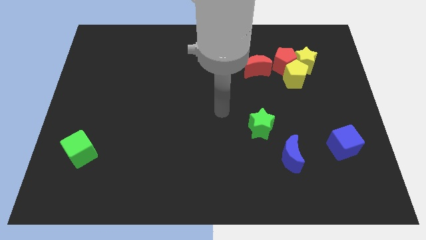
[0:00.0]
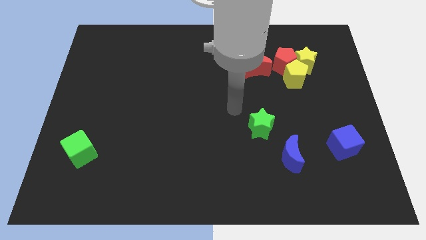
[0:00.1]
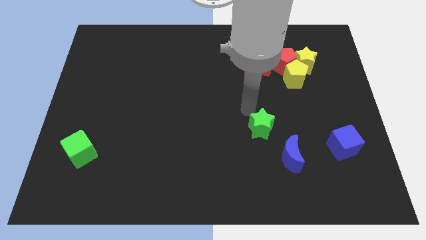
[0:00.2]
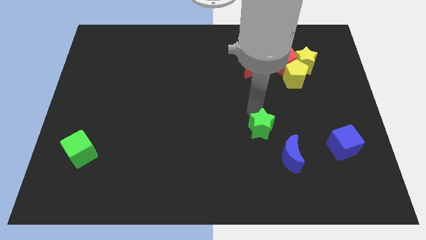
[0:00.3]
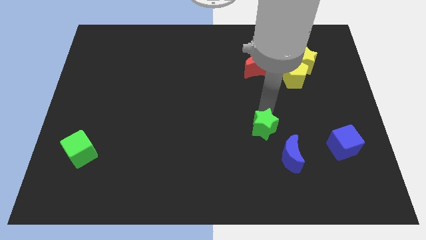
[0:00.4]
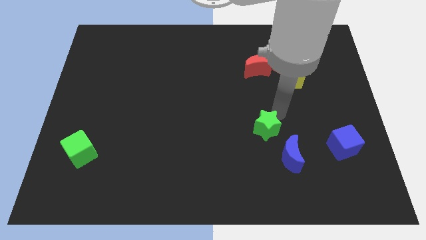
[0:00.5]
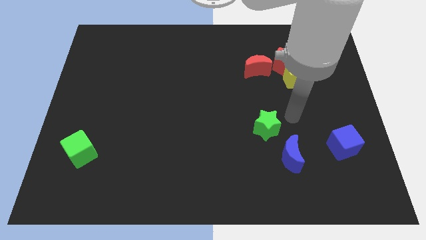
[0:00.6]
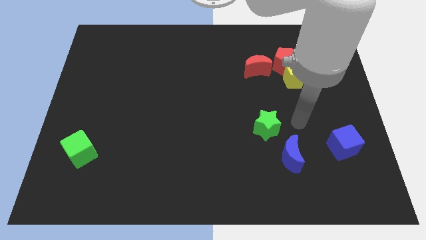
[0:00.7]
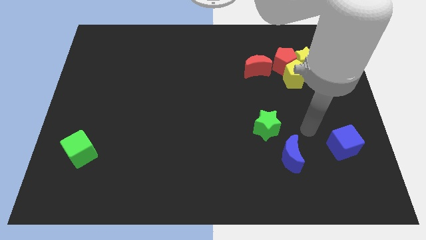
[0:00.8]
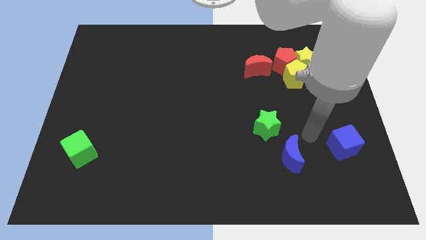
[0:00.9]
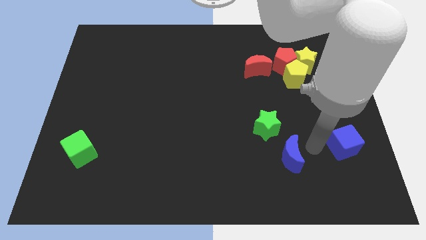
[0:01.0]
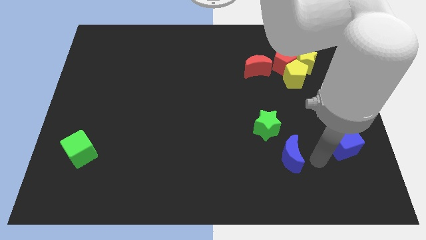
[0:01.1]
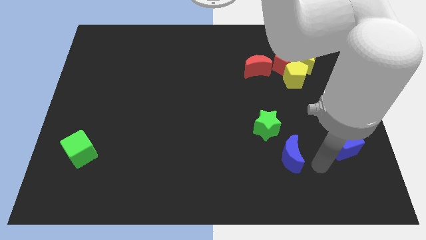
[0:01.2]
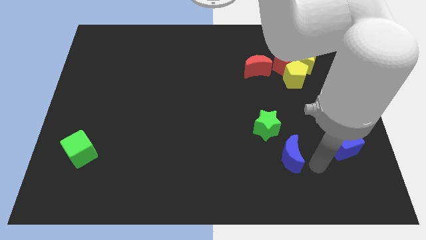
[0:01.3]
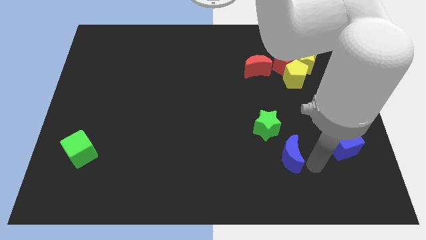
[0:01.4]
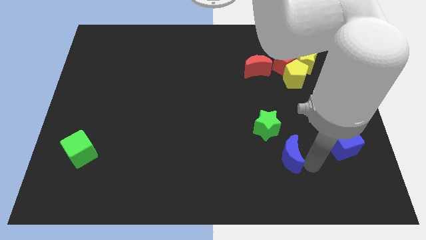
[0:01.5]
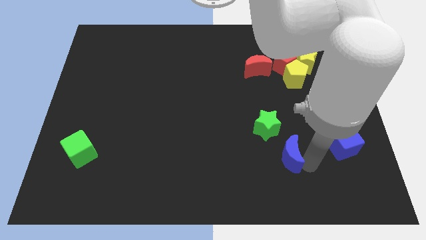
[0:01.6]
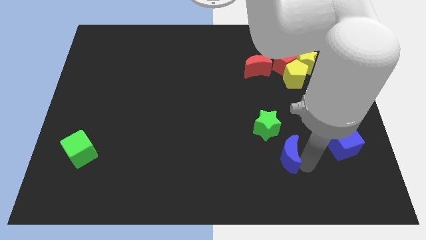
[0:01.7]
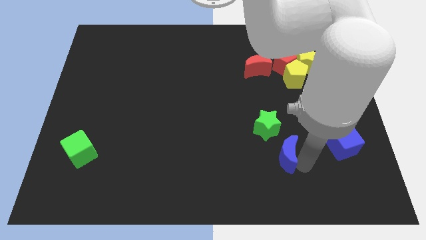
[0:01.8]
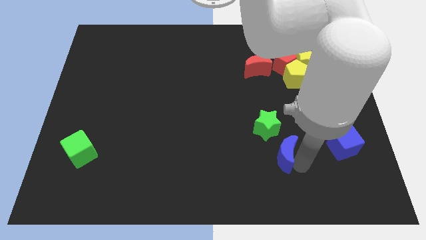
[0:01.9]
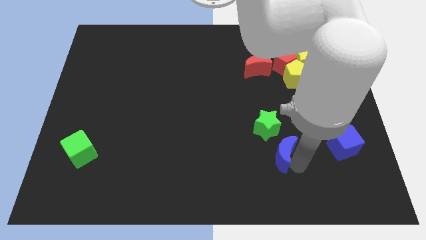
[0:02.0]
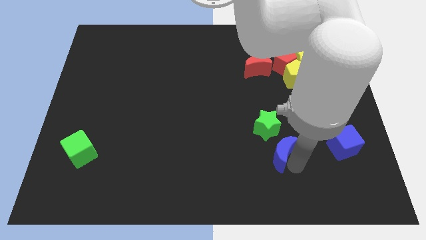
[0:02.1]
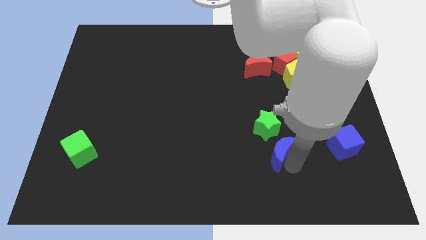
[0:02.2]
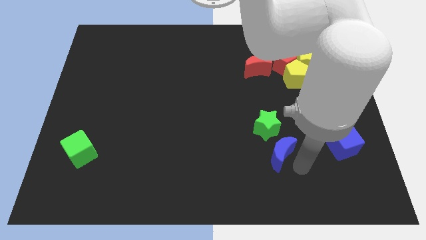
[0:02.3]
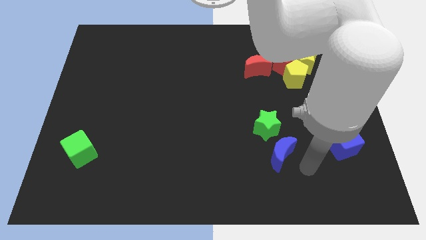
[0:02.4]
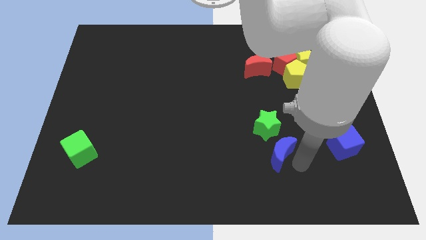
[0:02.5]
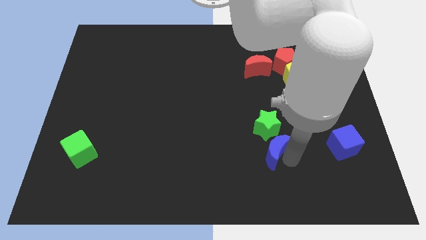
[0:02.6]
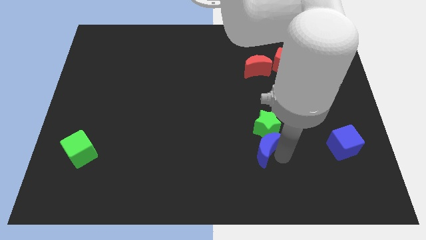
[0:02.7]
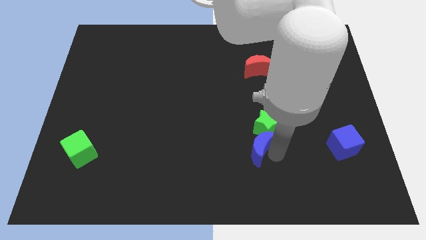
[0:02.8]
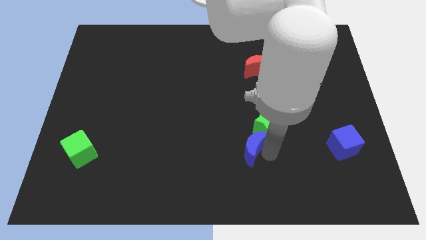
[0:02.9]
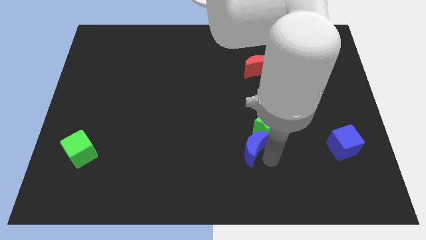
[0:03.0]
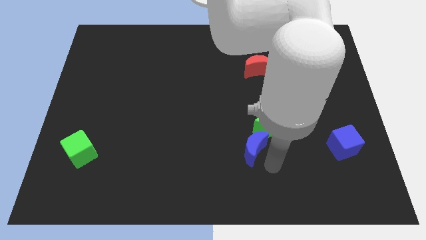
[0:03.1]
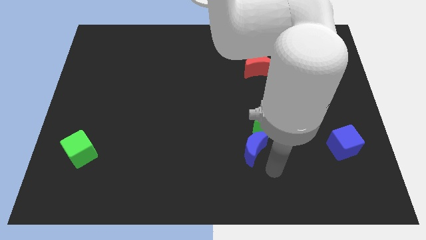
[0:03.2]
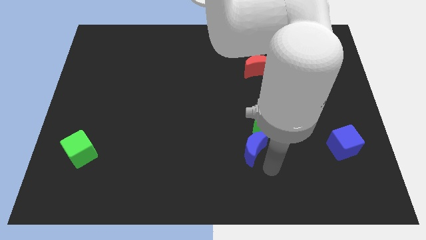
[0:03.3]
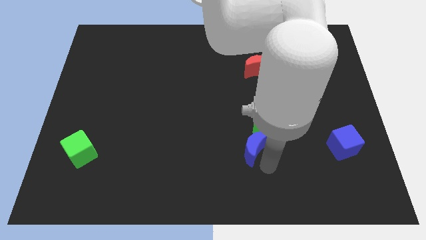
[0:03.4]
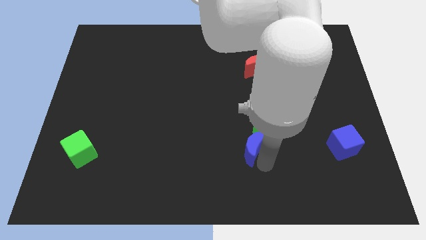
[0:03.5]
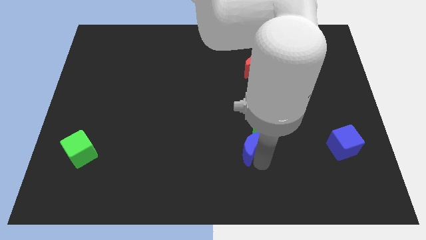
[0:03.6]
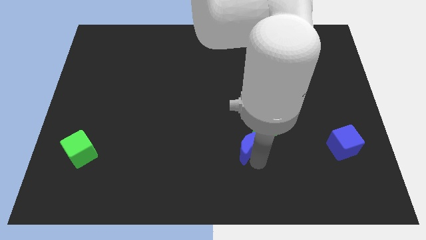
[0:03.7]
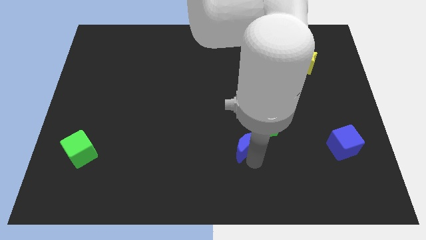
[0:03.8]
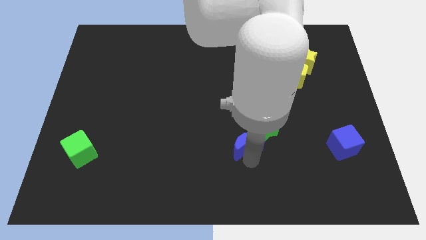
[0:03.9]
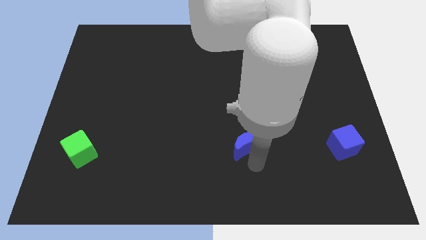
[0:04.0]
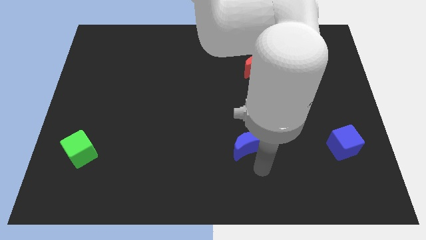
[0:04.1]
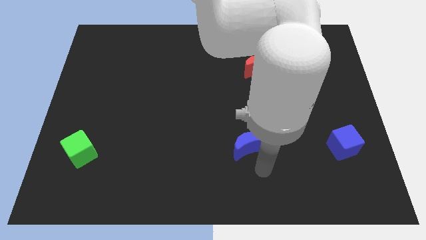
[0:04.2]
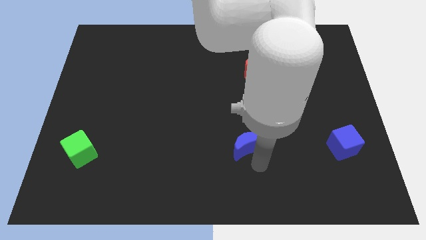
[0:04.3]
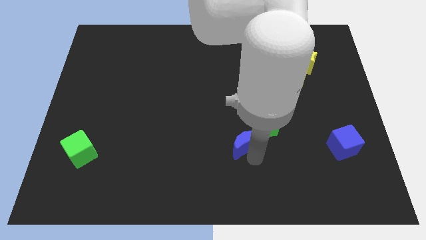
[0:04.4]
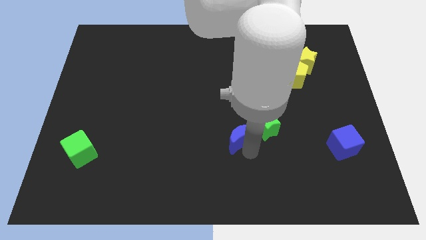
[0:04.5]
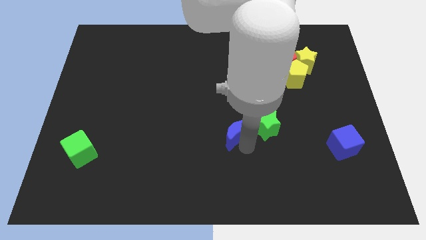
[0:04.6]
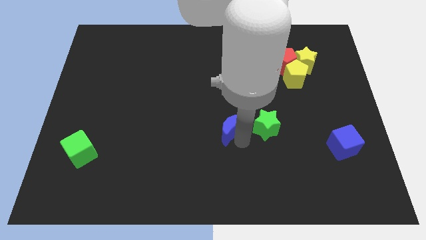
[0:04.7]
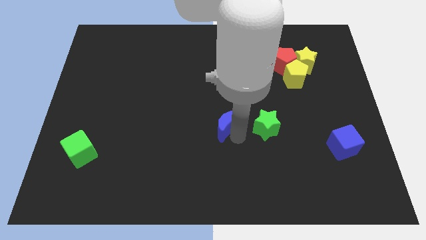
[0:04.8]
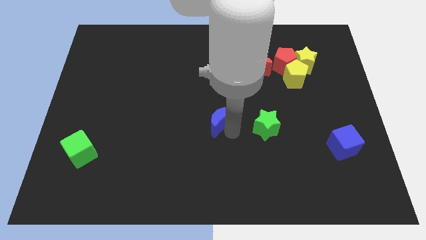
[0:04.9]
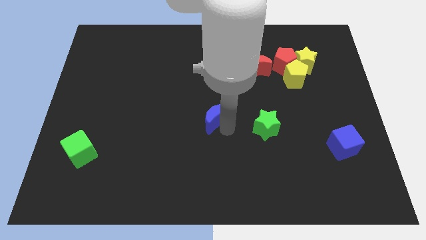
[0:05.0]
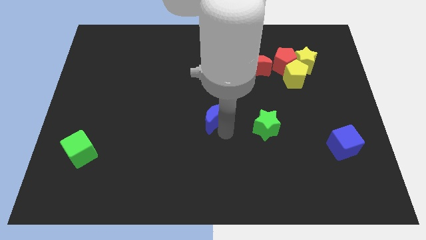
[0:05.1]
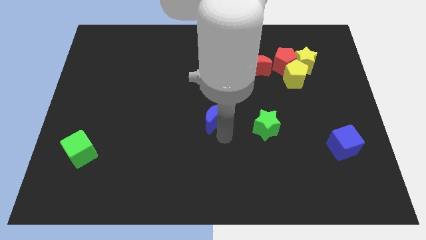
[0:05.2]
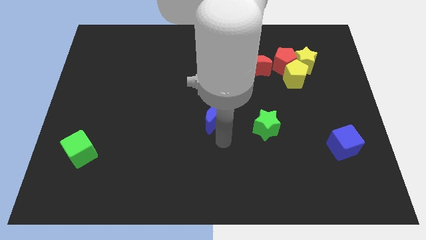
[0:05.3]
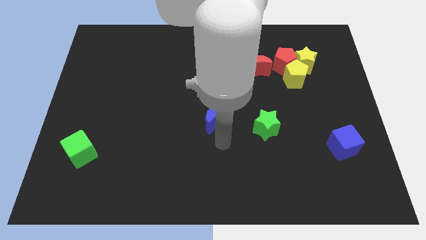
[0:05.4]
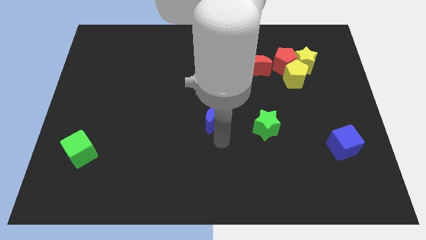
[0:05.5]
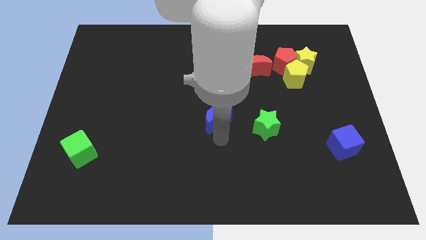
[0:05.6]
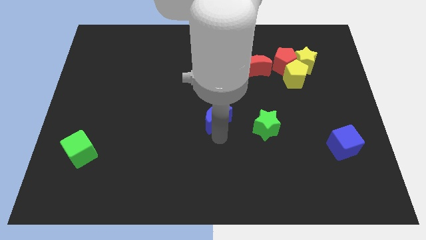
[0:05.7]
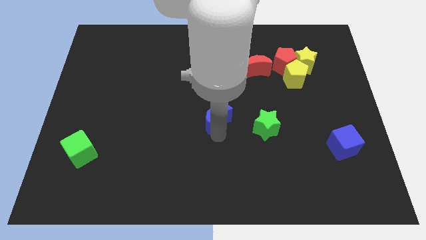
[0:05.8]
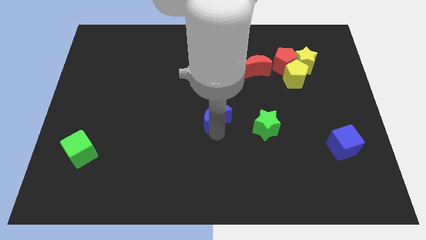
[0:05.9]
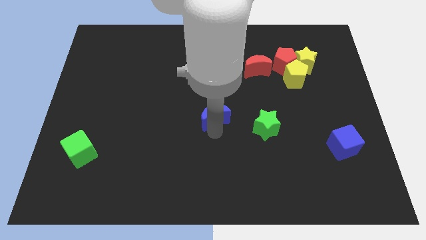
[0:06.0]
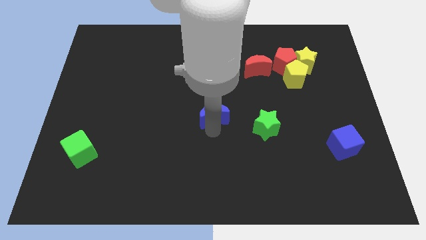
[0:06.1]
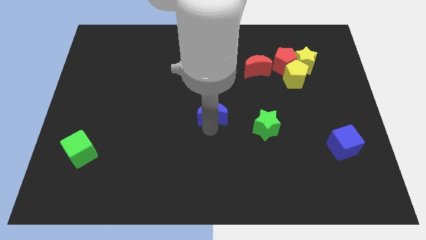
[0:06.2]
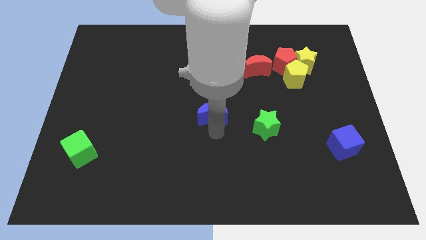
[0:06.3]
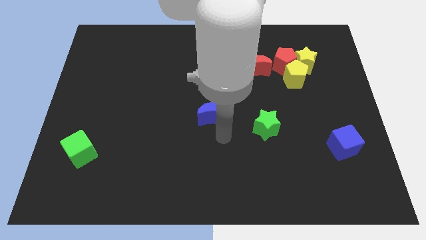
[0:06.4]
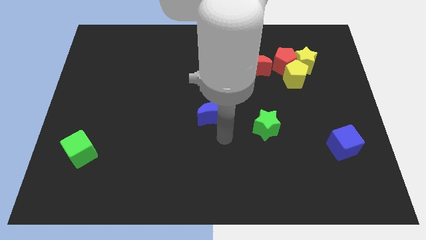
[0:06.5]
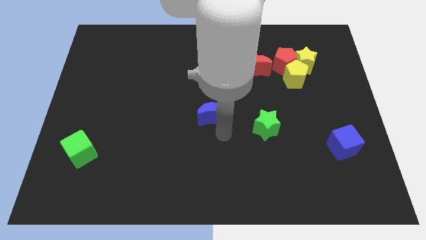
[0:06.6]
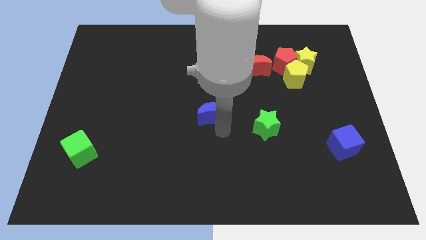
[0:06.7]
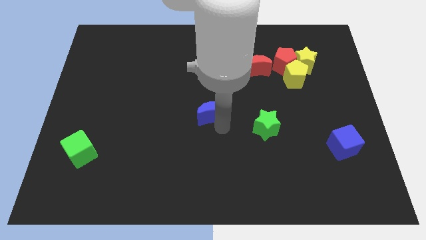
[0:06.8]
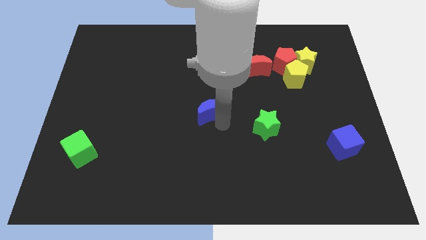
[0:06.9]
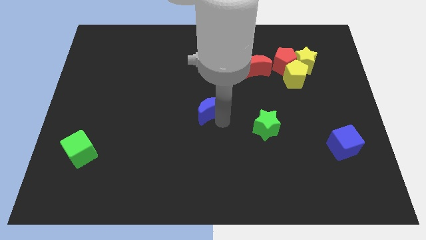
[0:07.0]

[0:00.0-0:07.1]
push the blue moon diagonally upwards and to the left

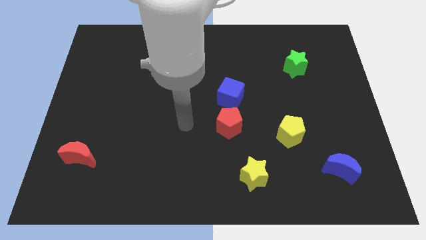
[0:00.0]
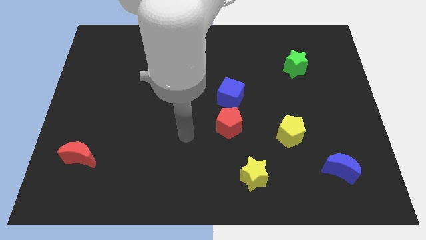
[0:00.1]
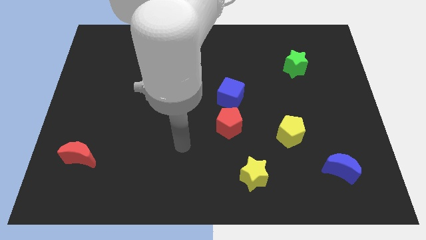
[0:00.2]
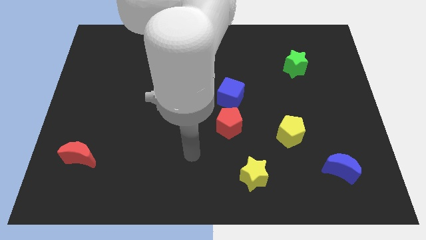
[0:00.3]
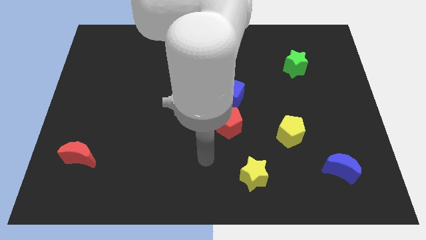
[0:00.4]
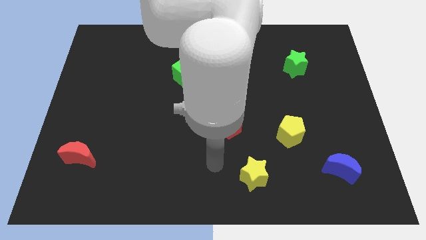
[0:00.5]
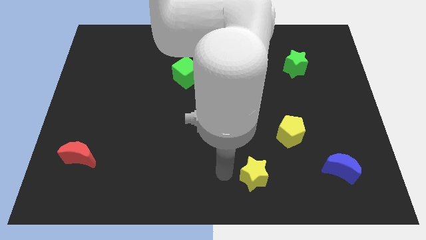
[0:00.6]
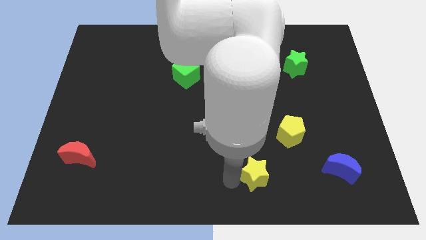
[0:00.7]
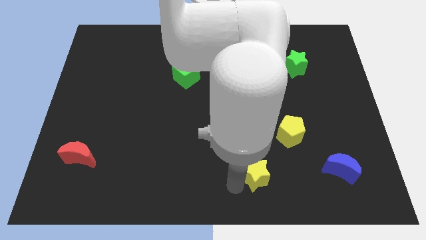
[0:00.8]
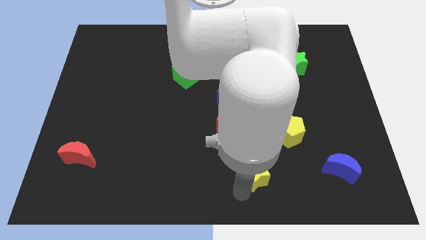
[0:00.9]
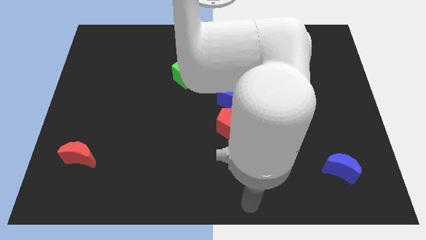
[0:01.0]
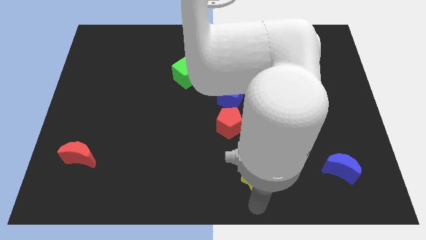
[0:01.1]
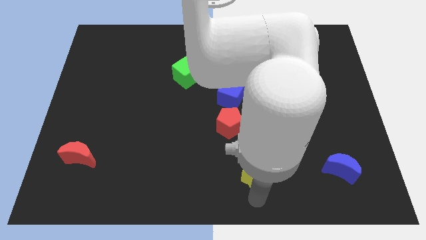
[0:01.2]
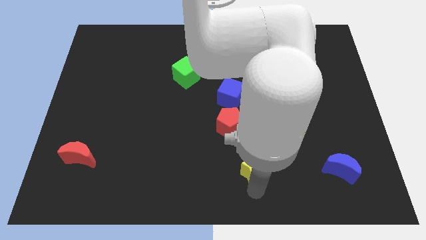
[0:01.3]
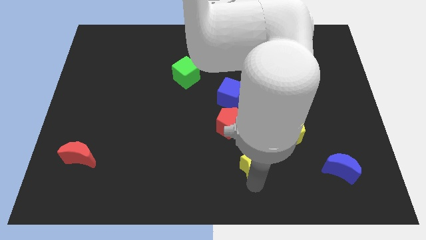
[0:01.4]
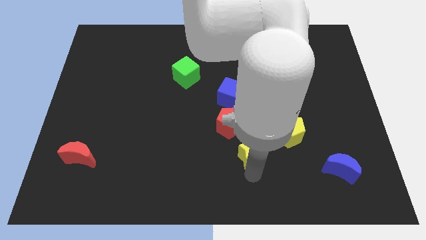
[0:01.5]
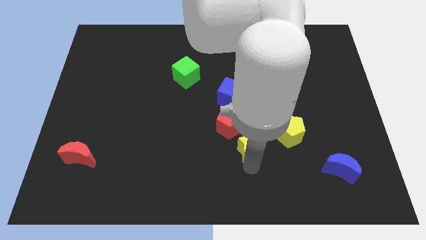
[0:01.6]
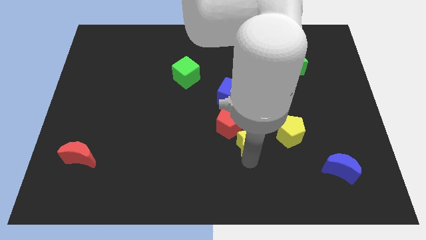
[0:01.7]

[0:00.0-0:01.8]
push the yellow star somewhat up
